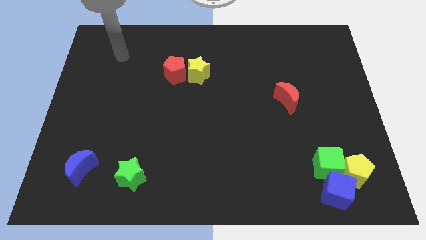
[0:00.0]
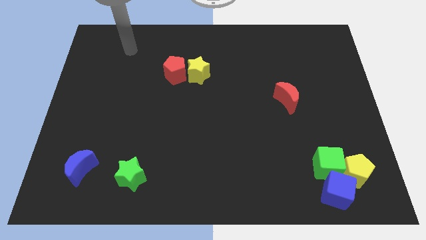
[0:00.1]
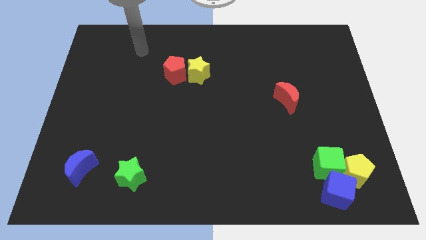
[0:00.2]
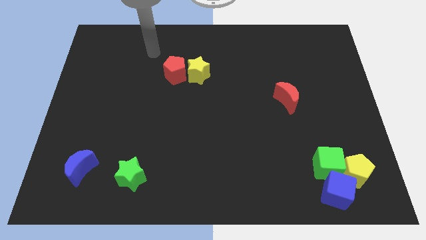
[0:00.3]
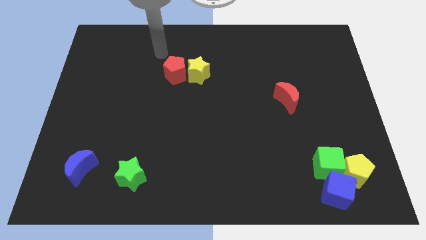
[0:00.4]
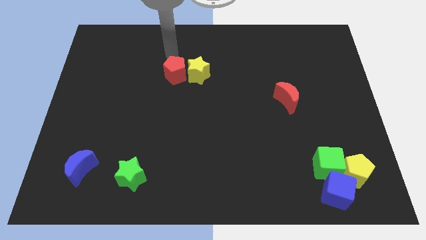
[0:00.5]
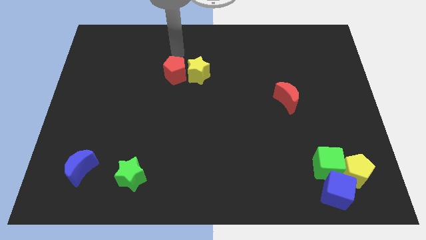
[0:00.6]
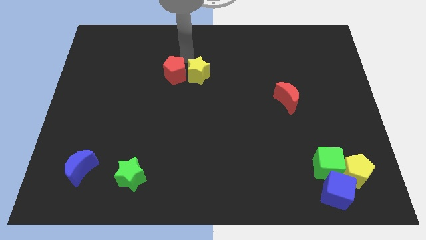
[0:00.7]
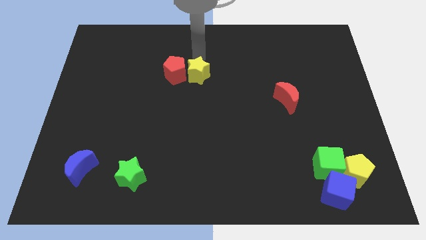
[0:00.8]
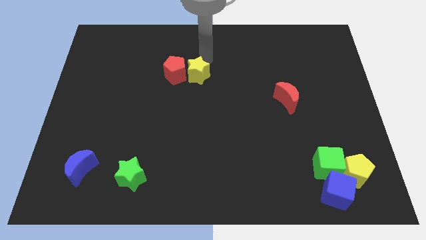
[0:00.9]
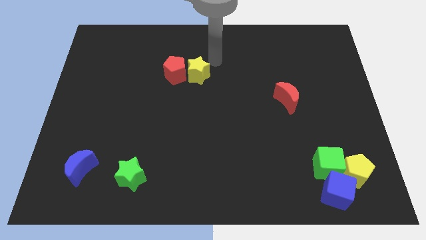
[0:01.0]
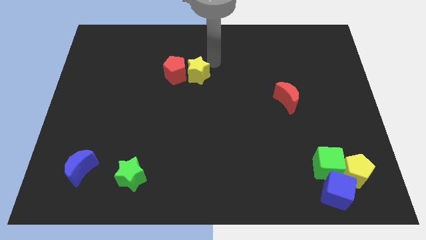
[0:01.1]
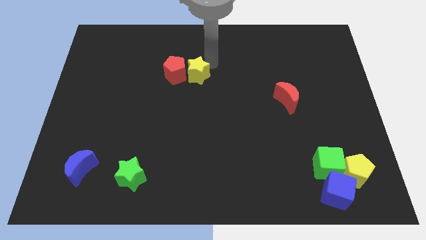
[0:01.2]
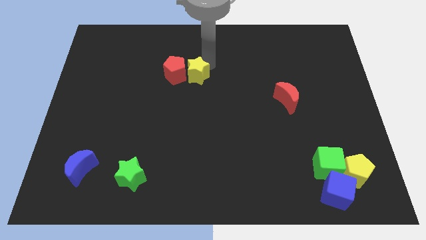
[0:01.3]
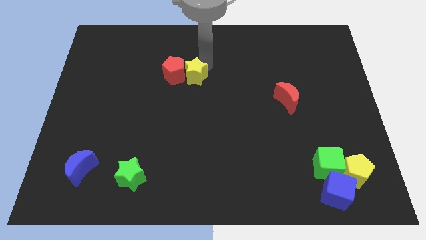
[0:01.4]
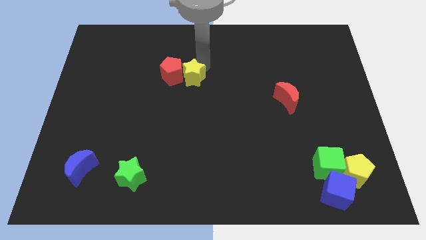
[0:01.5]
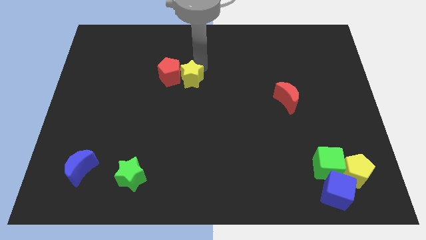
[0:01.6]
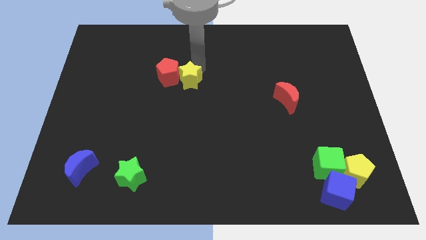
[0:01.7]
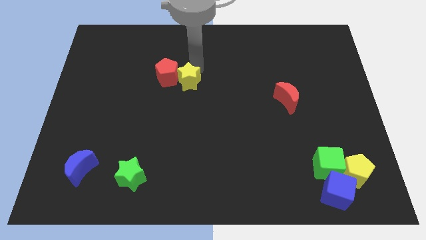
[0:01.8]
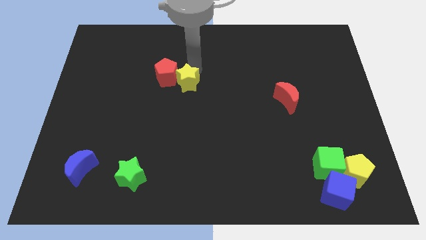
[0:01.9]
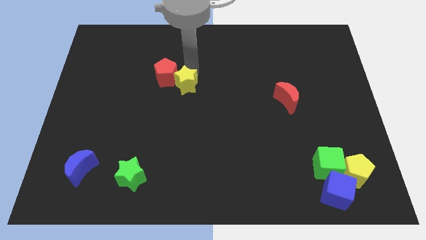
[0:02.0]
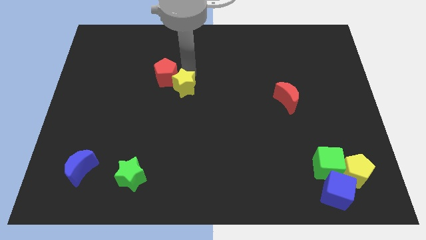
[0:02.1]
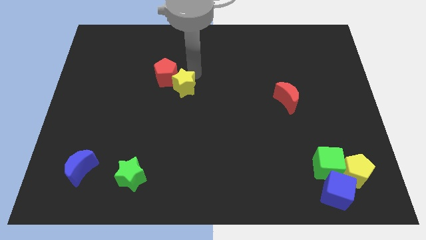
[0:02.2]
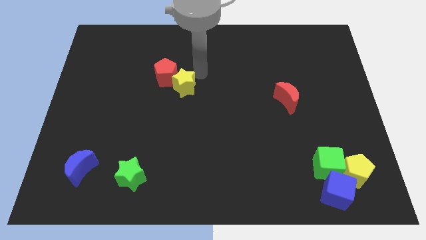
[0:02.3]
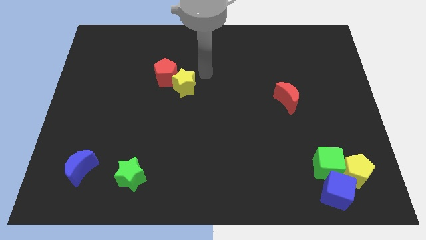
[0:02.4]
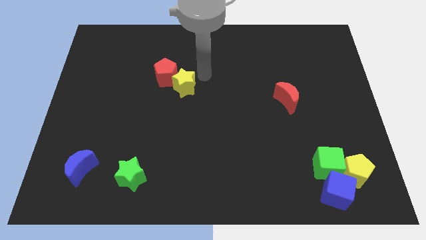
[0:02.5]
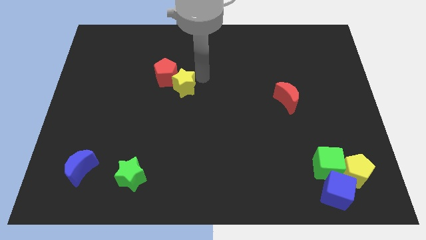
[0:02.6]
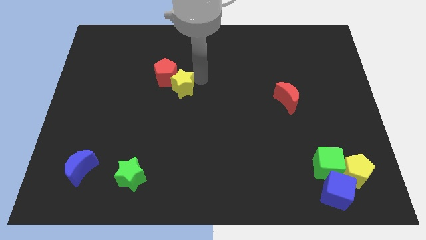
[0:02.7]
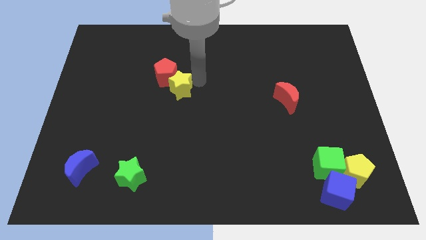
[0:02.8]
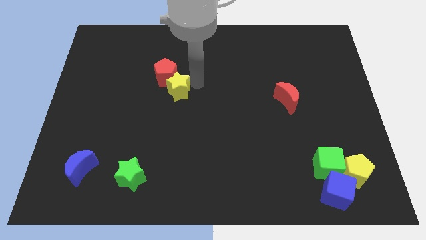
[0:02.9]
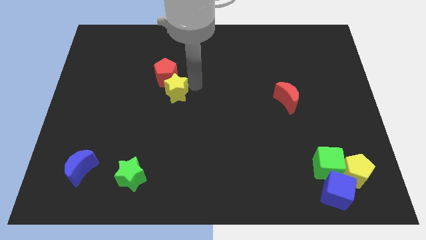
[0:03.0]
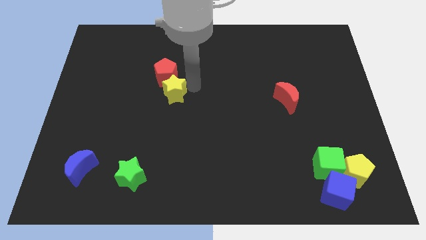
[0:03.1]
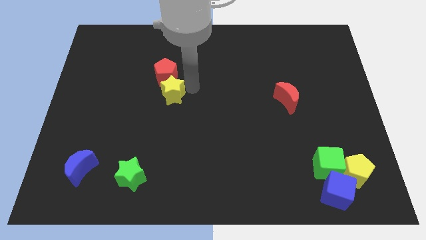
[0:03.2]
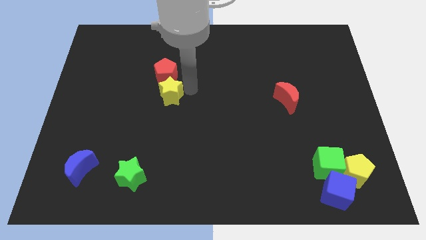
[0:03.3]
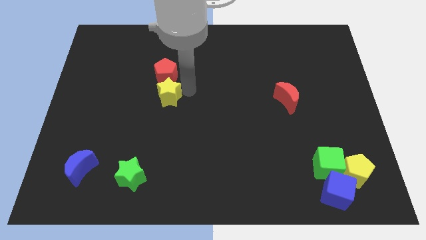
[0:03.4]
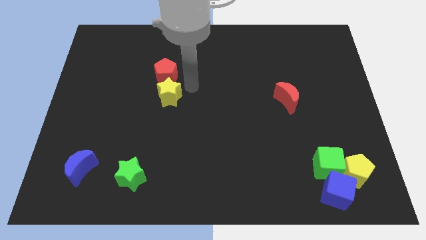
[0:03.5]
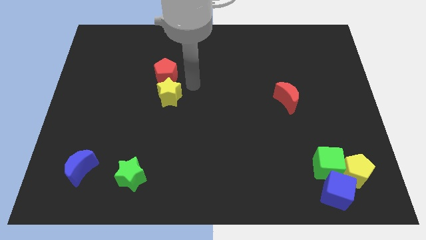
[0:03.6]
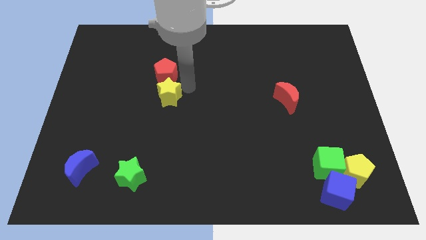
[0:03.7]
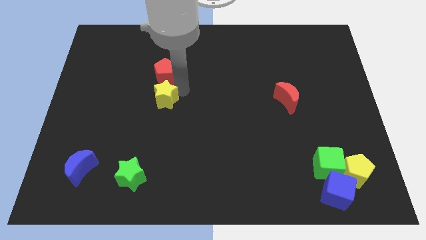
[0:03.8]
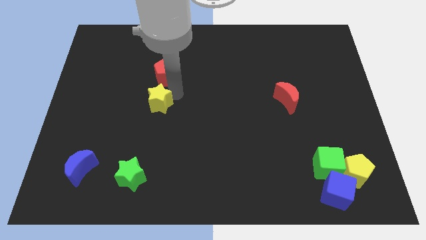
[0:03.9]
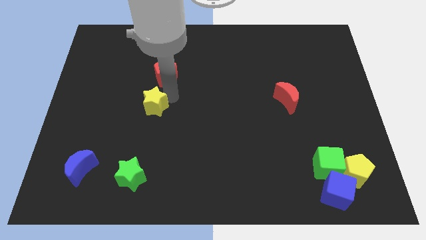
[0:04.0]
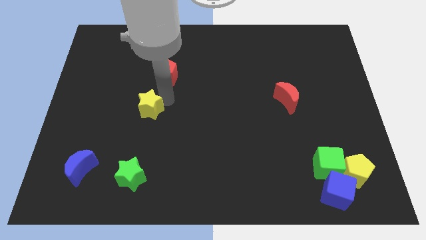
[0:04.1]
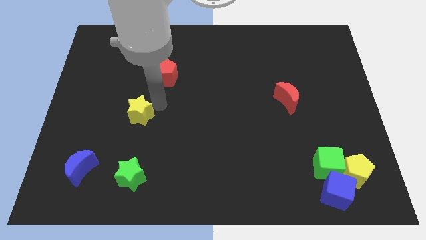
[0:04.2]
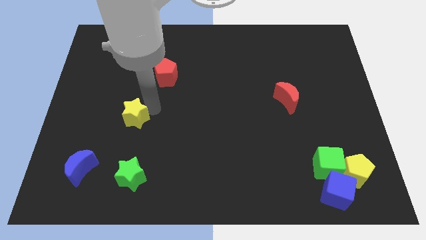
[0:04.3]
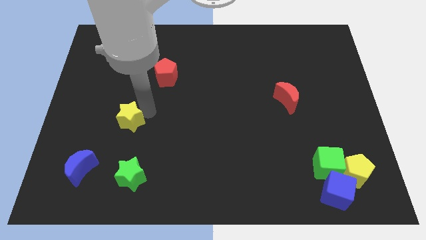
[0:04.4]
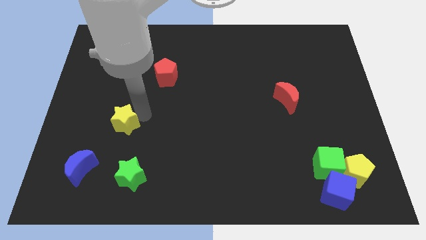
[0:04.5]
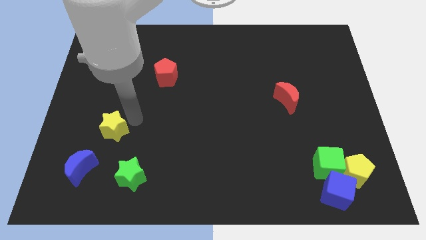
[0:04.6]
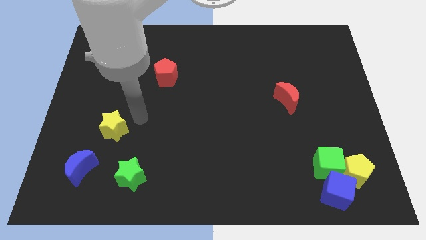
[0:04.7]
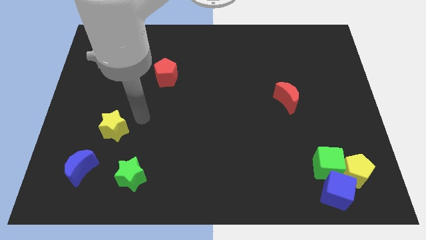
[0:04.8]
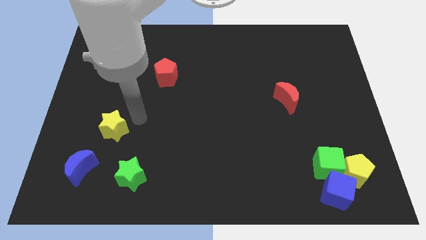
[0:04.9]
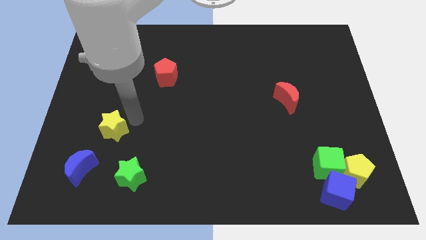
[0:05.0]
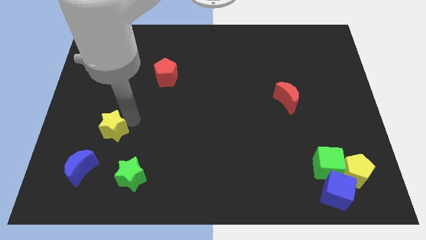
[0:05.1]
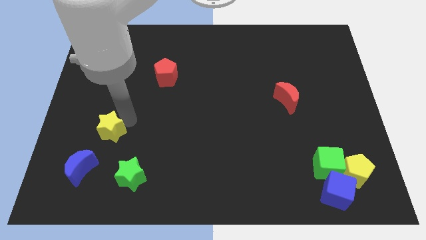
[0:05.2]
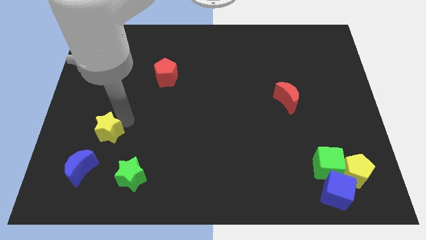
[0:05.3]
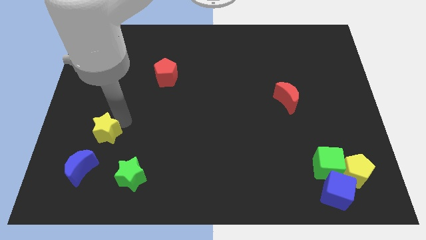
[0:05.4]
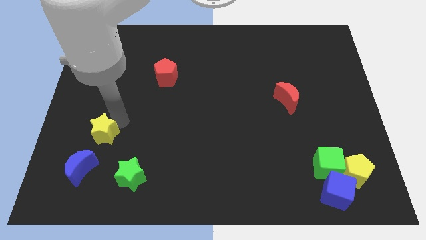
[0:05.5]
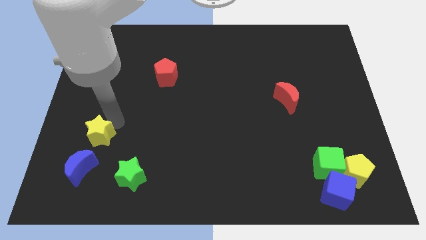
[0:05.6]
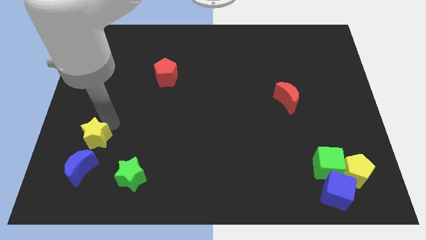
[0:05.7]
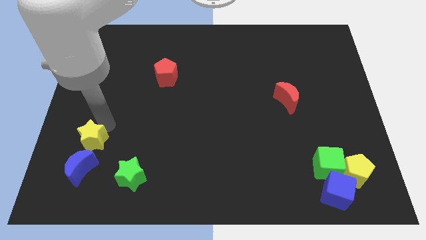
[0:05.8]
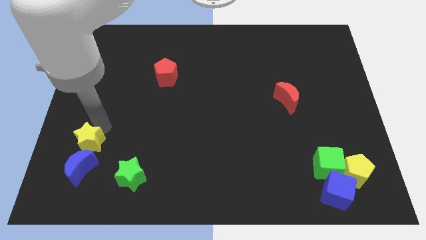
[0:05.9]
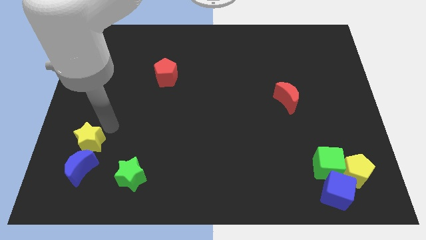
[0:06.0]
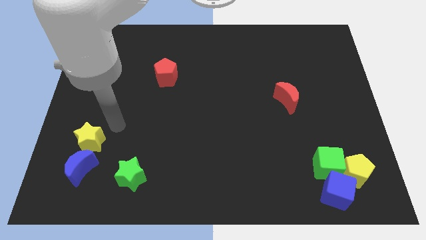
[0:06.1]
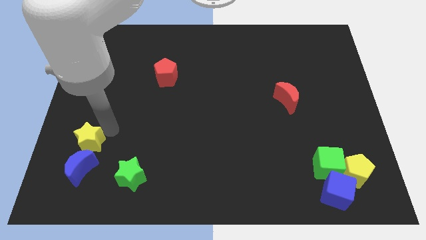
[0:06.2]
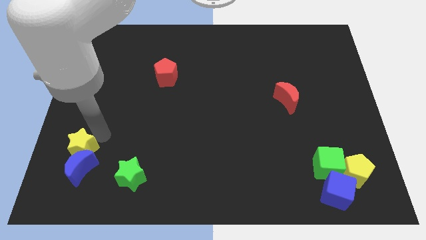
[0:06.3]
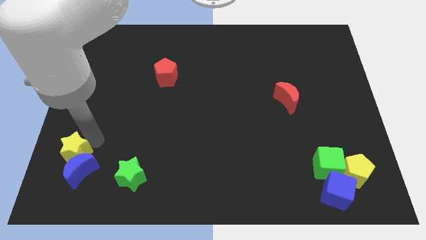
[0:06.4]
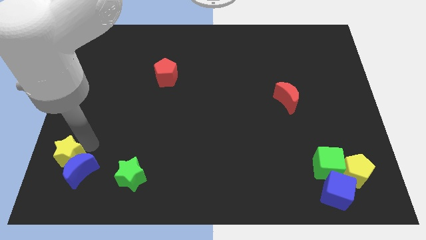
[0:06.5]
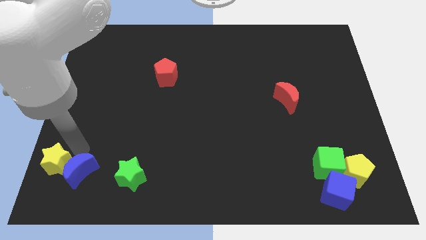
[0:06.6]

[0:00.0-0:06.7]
slide the yellow star to the bottom left

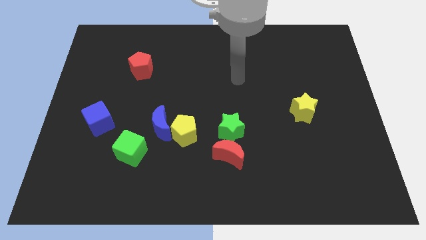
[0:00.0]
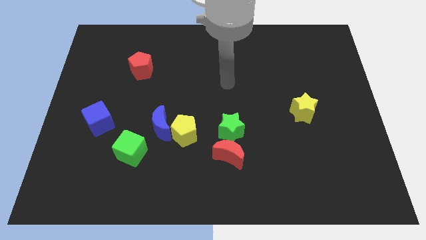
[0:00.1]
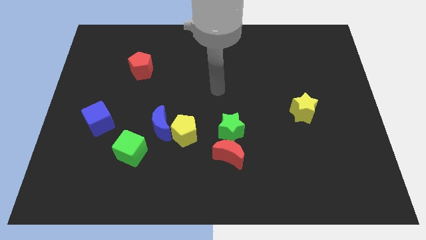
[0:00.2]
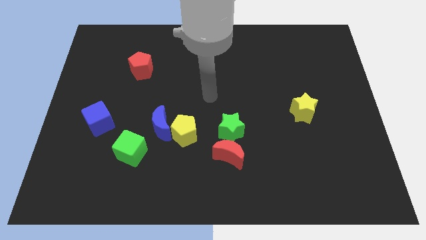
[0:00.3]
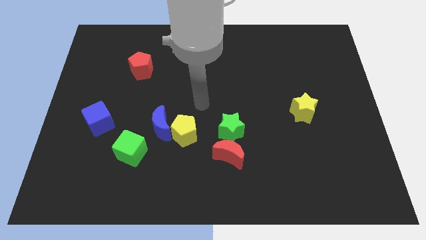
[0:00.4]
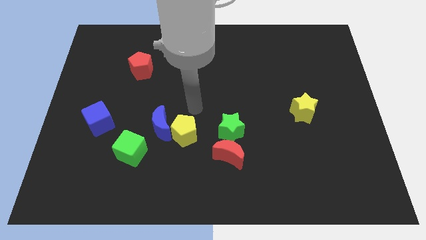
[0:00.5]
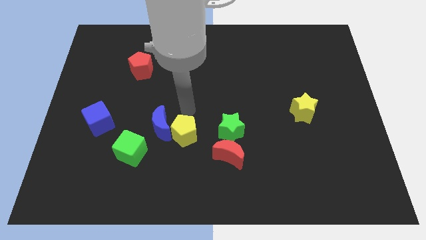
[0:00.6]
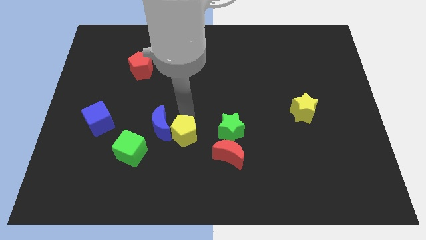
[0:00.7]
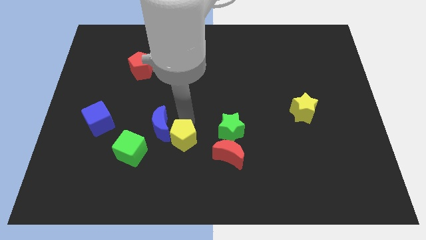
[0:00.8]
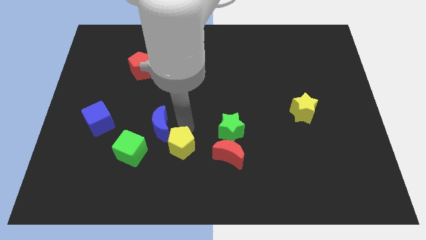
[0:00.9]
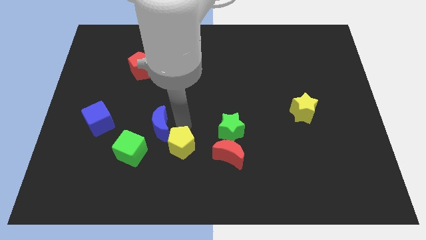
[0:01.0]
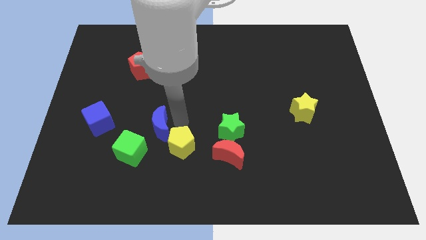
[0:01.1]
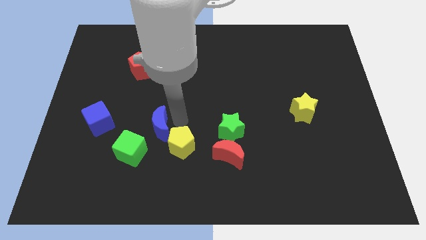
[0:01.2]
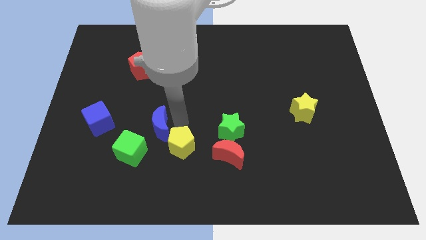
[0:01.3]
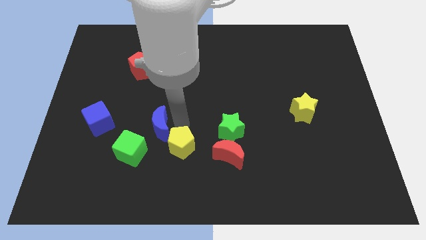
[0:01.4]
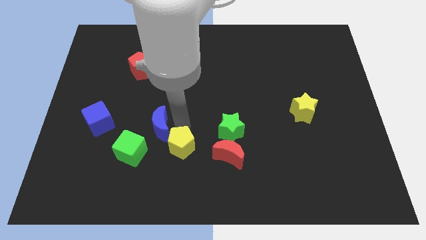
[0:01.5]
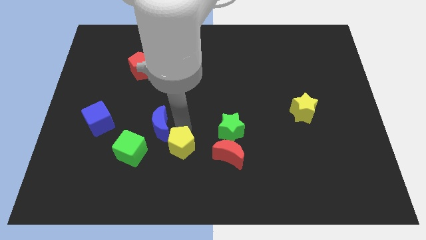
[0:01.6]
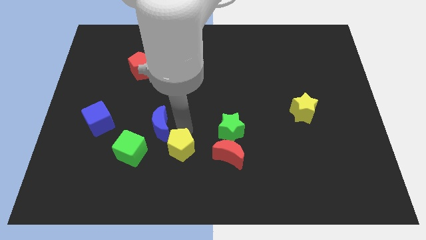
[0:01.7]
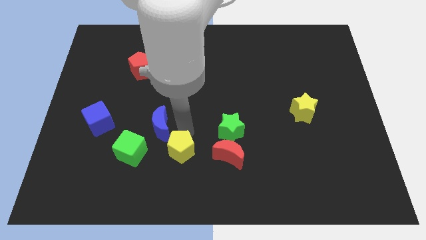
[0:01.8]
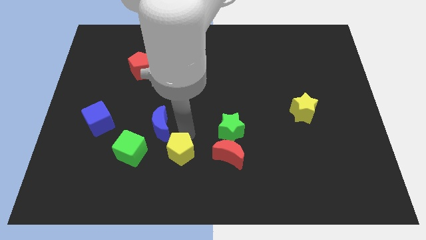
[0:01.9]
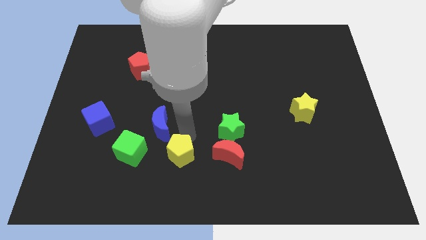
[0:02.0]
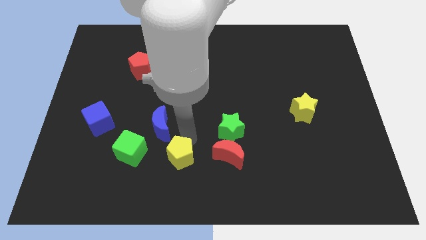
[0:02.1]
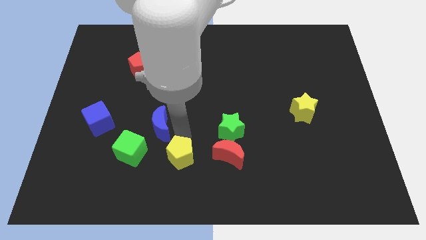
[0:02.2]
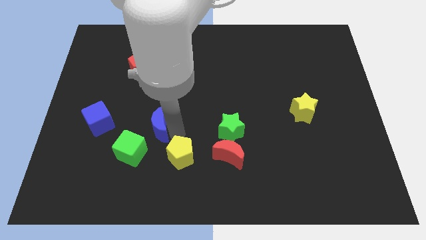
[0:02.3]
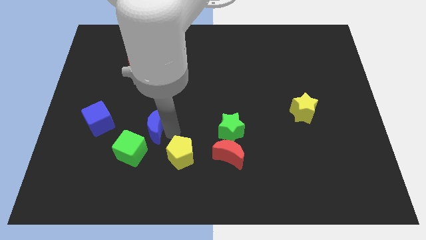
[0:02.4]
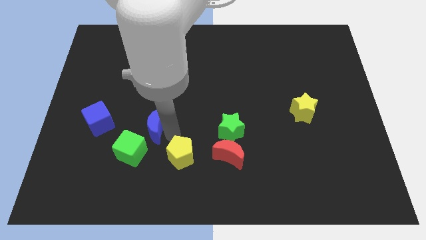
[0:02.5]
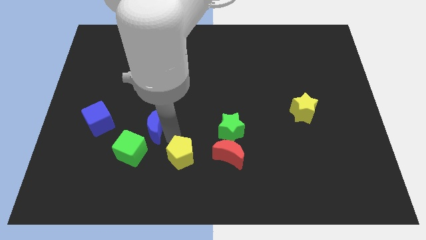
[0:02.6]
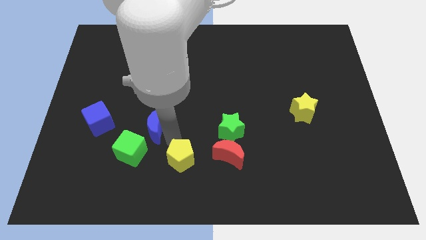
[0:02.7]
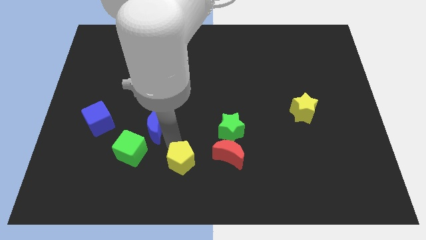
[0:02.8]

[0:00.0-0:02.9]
slide the yellow pentagon to the bottom side
